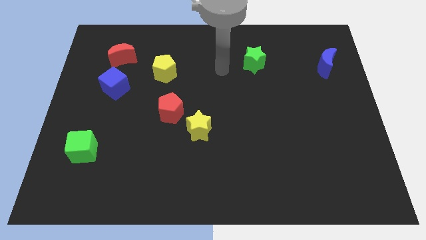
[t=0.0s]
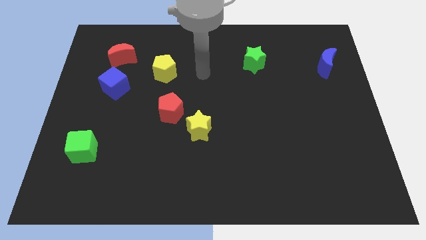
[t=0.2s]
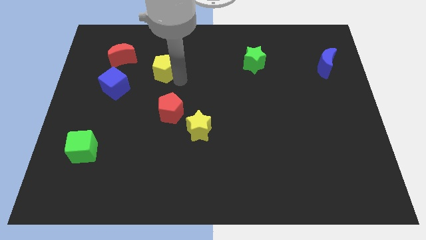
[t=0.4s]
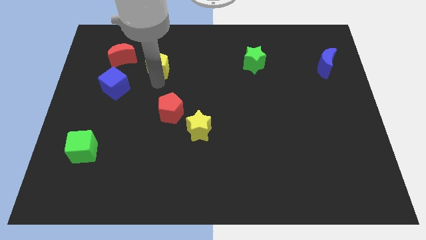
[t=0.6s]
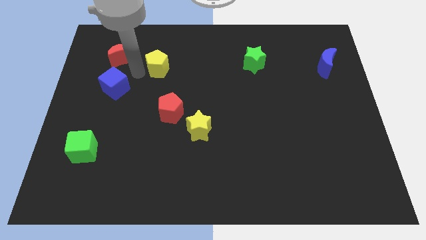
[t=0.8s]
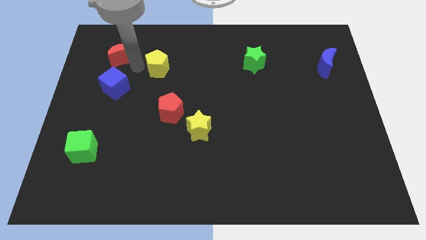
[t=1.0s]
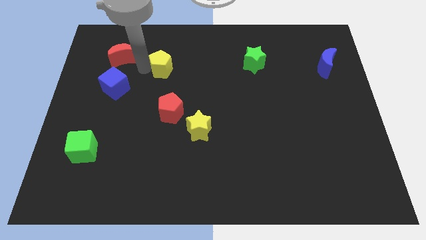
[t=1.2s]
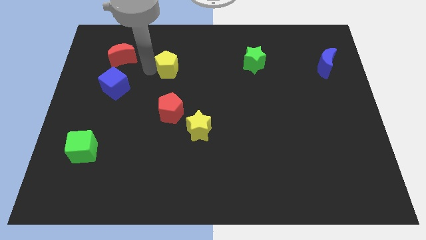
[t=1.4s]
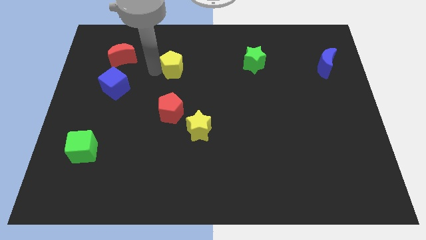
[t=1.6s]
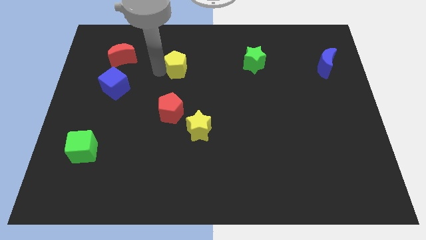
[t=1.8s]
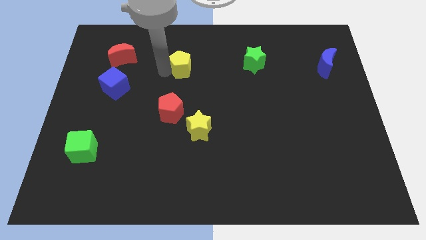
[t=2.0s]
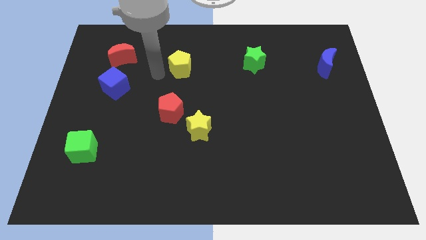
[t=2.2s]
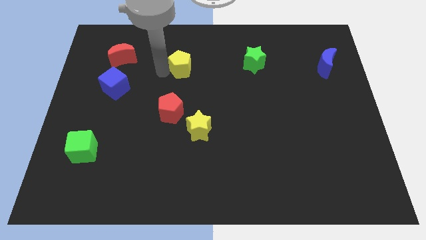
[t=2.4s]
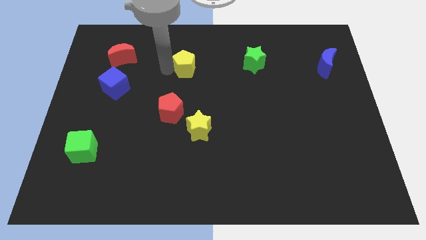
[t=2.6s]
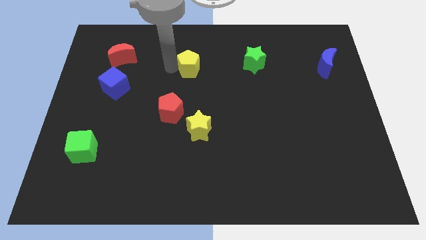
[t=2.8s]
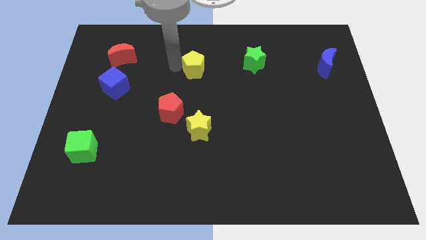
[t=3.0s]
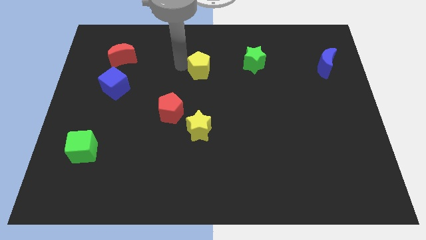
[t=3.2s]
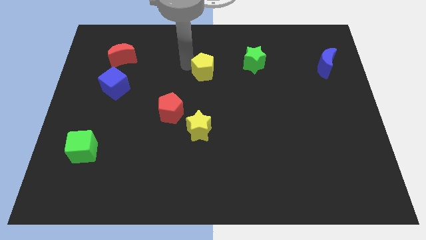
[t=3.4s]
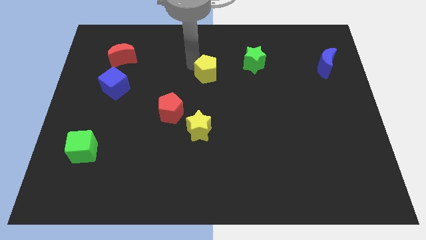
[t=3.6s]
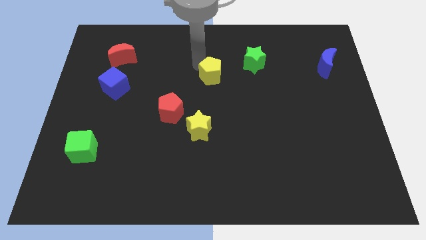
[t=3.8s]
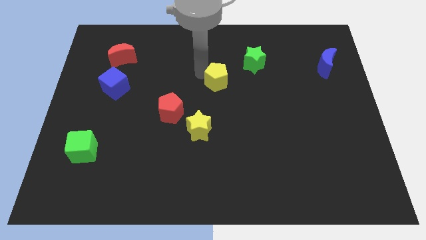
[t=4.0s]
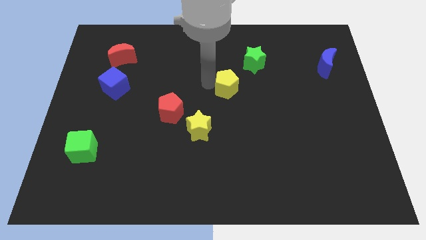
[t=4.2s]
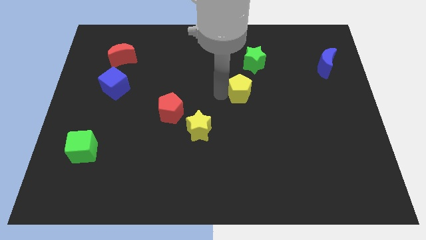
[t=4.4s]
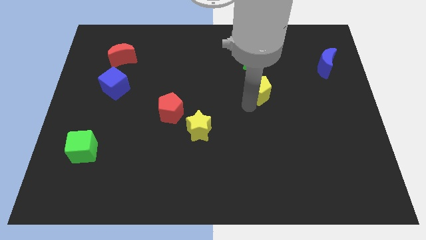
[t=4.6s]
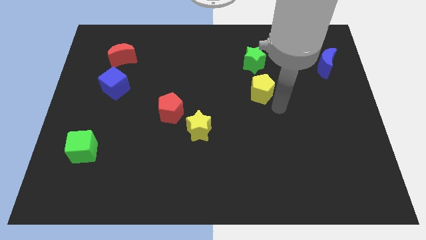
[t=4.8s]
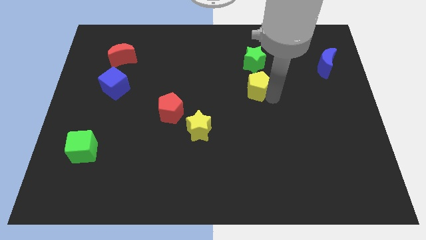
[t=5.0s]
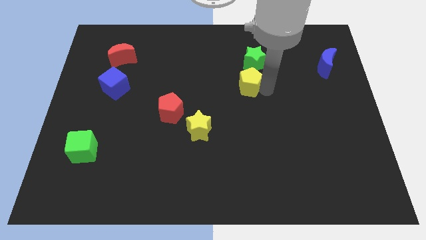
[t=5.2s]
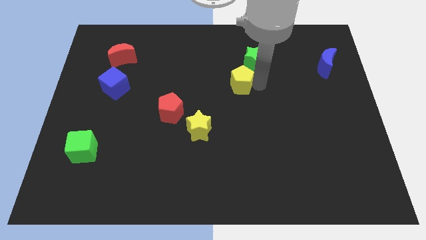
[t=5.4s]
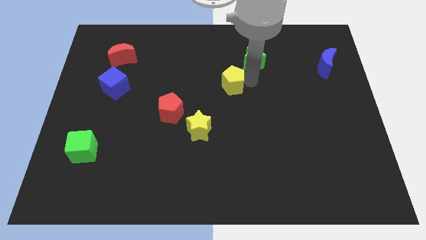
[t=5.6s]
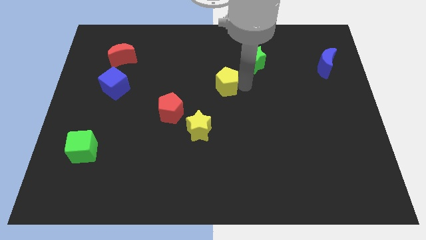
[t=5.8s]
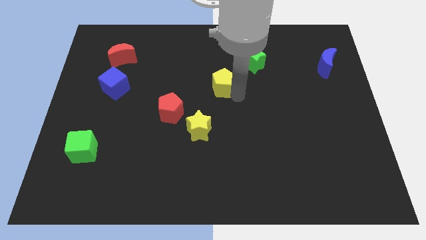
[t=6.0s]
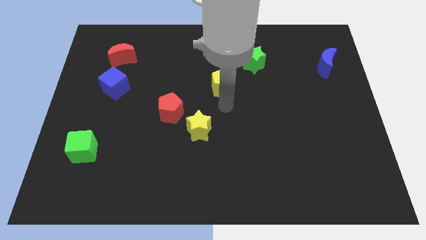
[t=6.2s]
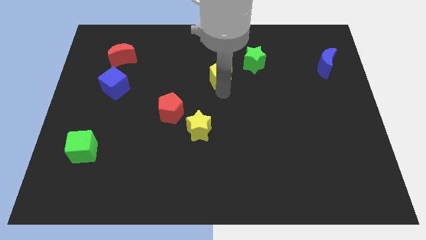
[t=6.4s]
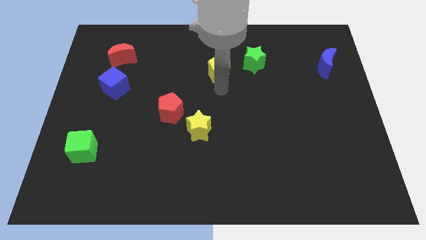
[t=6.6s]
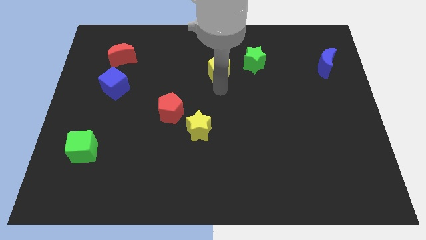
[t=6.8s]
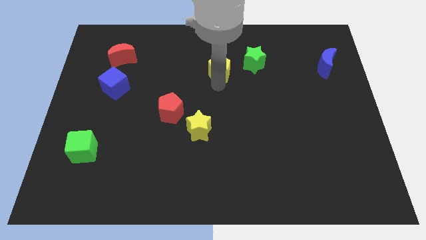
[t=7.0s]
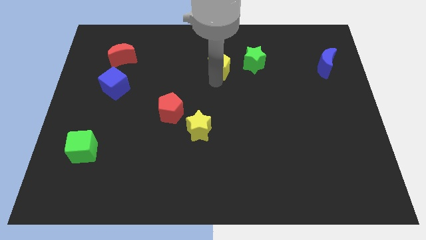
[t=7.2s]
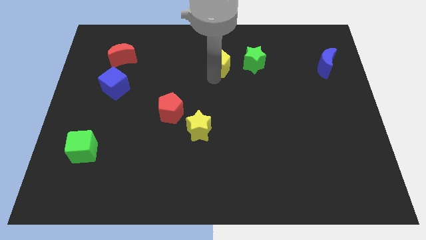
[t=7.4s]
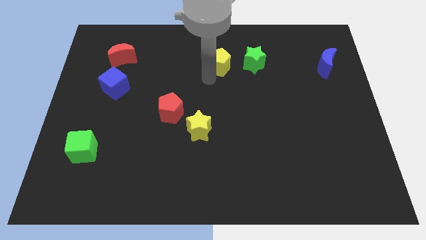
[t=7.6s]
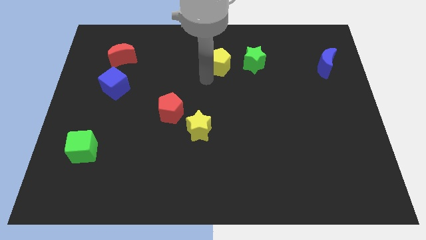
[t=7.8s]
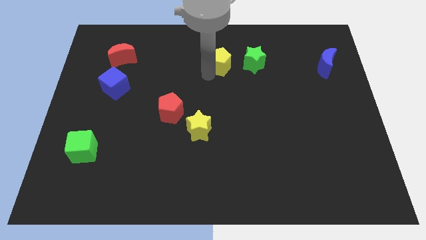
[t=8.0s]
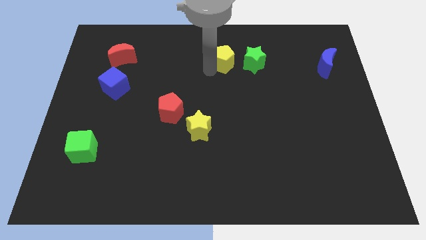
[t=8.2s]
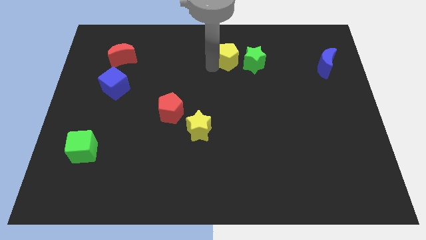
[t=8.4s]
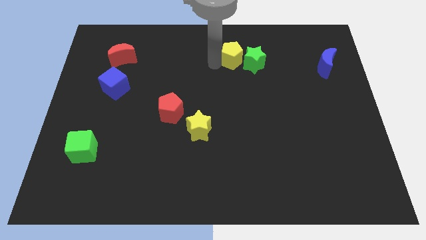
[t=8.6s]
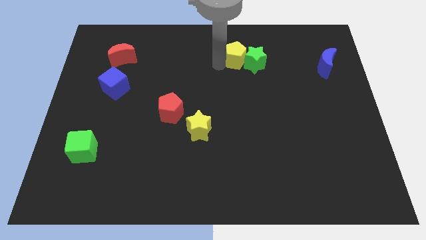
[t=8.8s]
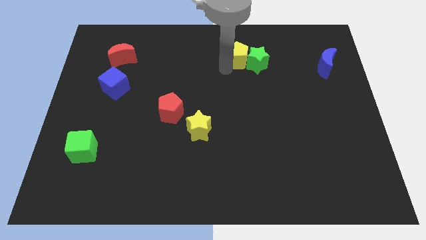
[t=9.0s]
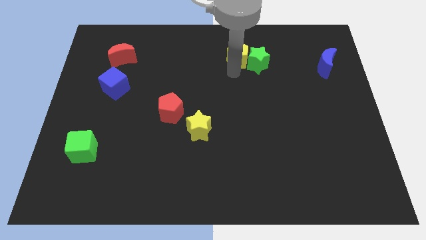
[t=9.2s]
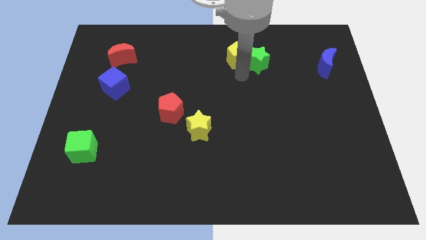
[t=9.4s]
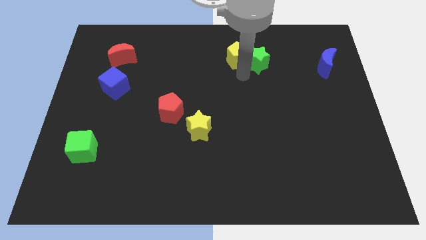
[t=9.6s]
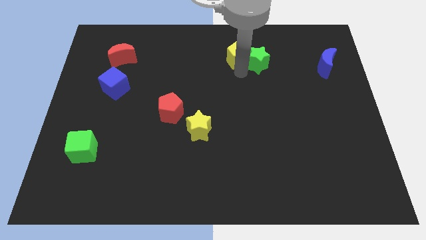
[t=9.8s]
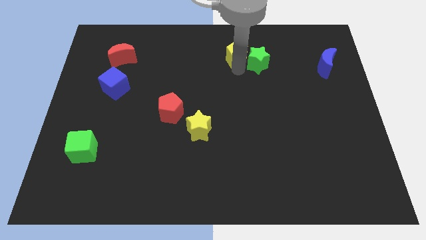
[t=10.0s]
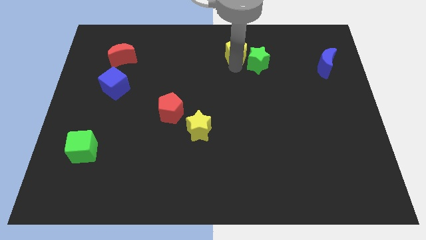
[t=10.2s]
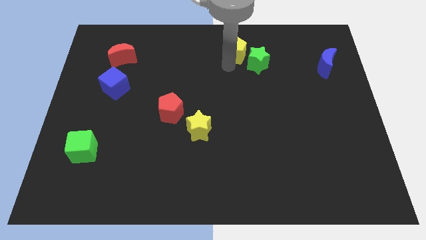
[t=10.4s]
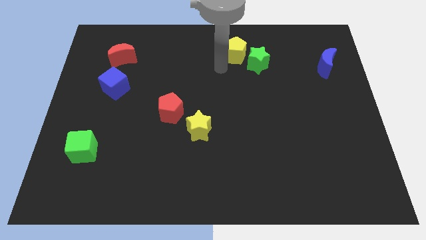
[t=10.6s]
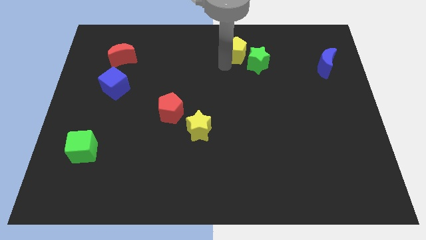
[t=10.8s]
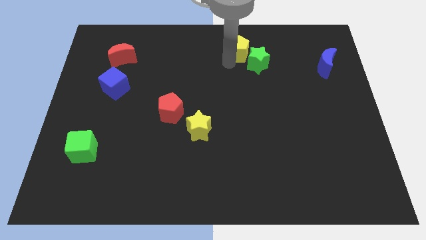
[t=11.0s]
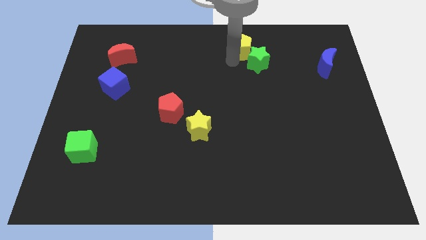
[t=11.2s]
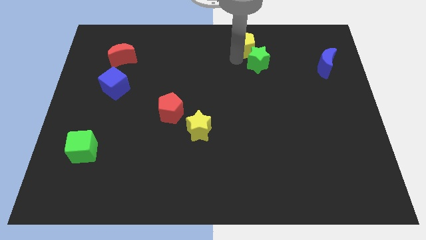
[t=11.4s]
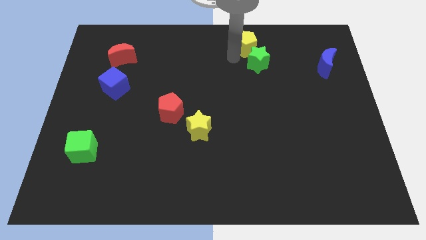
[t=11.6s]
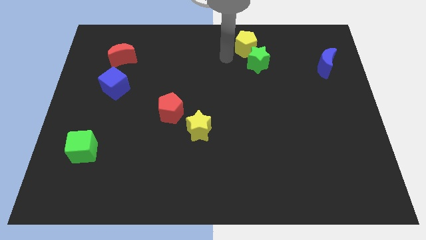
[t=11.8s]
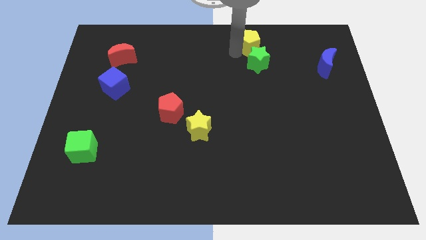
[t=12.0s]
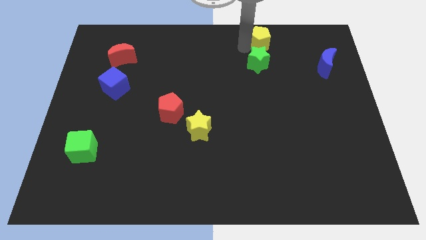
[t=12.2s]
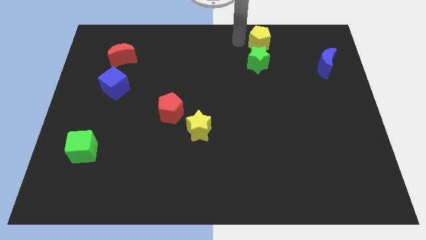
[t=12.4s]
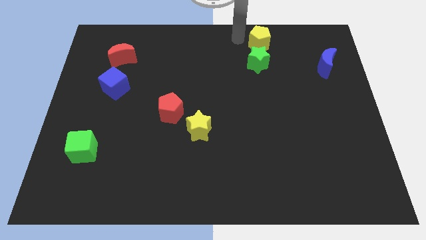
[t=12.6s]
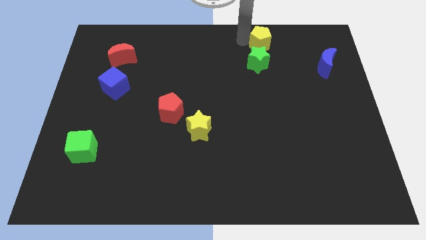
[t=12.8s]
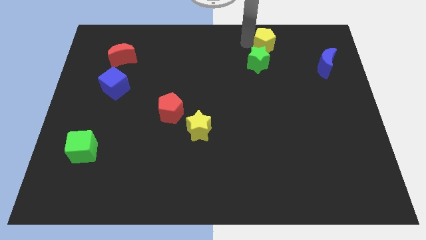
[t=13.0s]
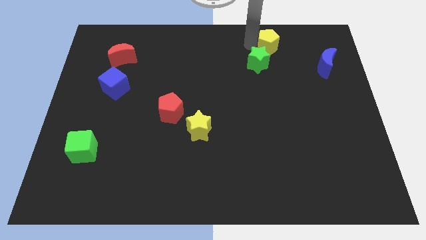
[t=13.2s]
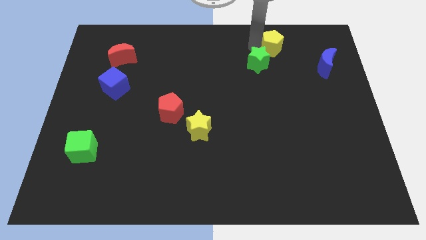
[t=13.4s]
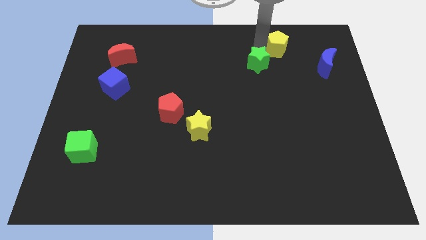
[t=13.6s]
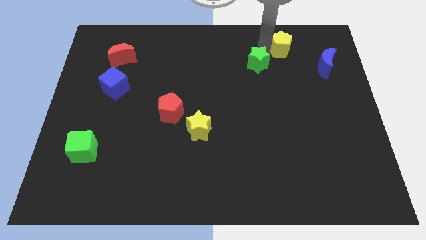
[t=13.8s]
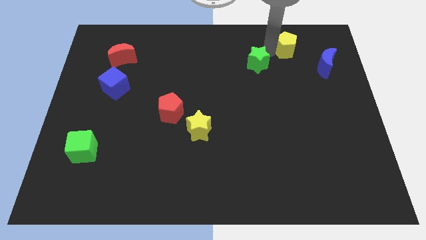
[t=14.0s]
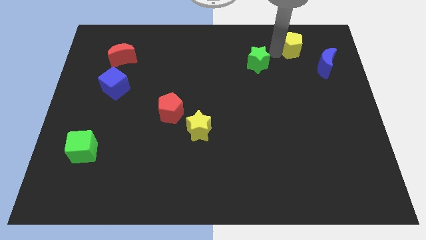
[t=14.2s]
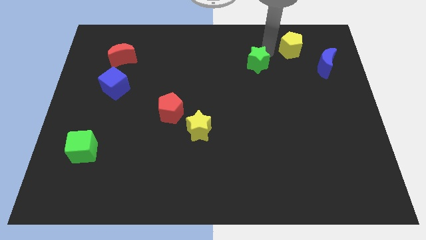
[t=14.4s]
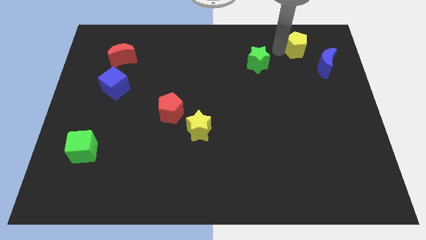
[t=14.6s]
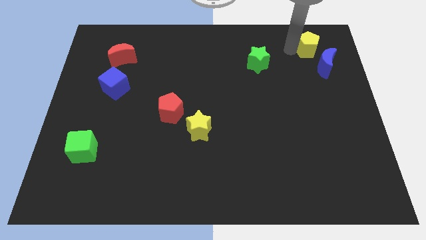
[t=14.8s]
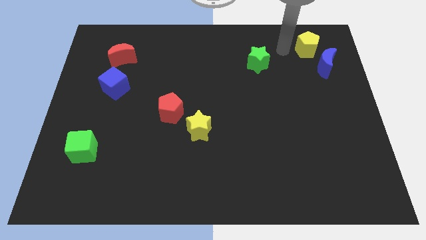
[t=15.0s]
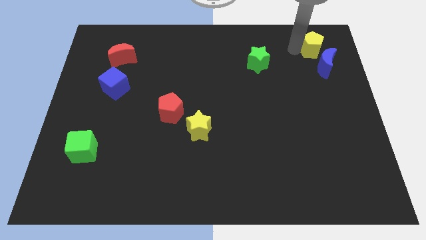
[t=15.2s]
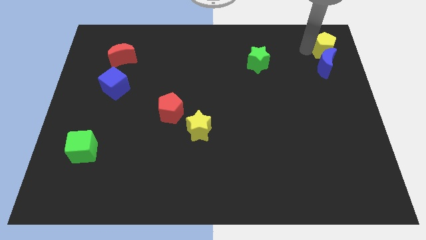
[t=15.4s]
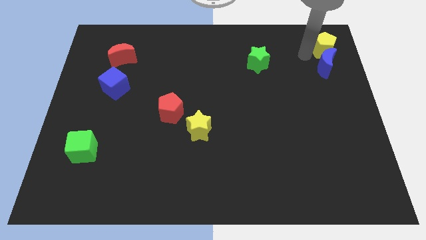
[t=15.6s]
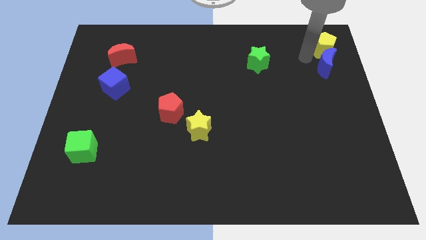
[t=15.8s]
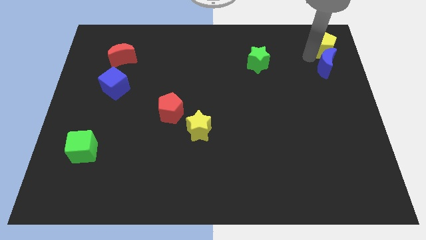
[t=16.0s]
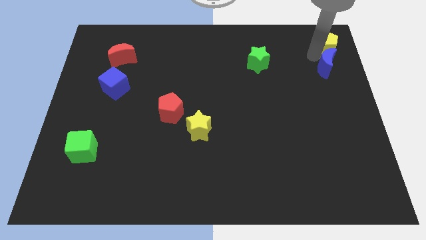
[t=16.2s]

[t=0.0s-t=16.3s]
put the yellow pentagon to the upper right corner
